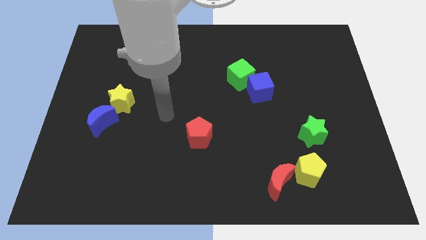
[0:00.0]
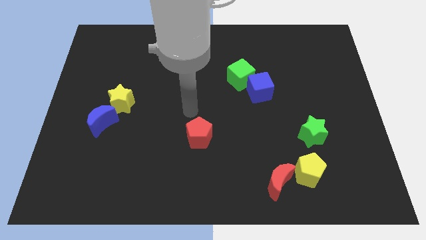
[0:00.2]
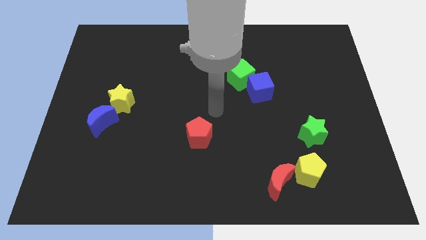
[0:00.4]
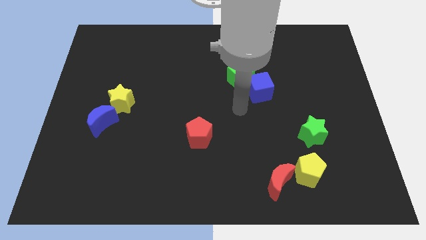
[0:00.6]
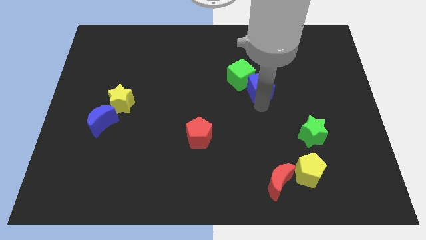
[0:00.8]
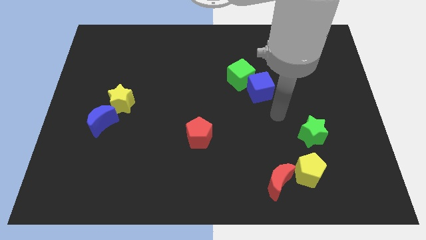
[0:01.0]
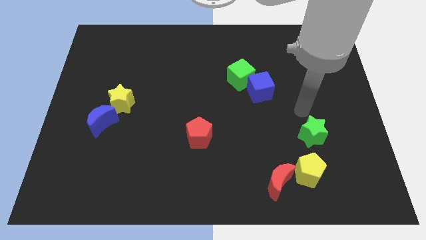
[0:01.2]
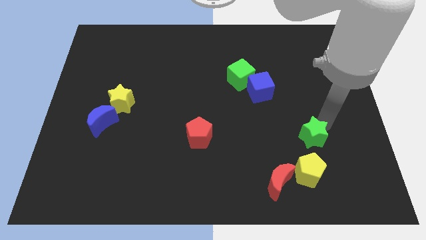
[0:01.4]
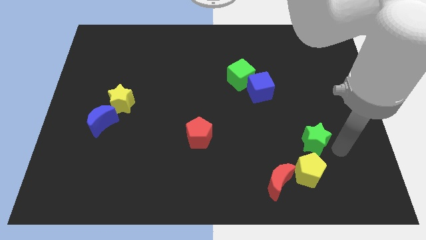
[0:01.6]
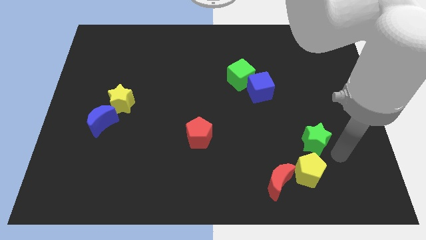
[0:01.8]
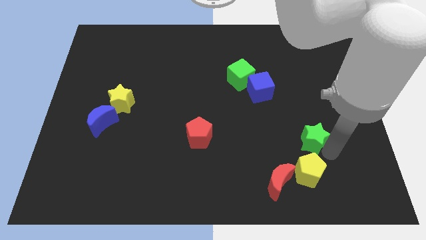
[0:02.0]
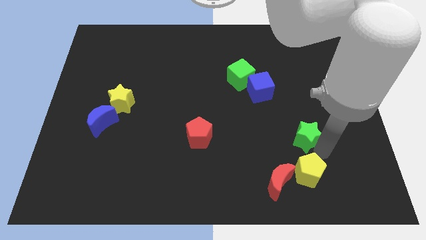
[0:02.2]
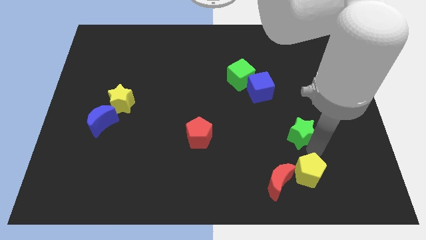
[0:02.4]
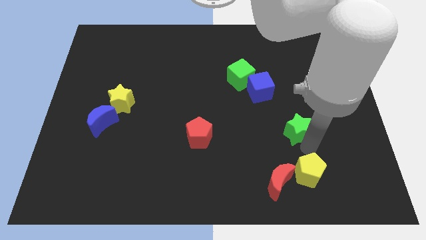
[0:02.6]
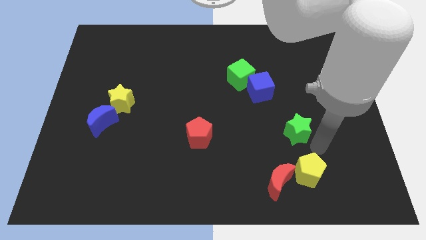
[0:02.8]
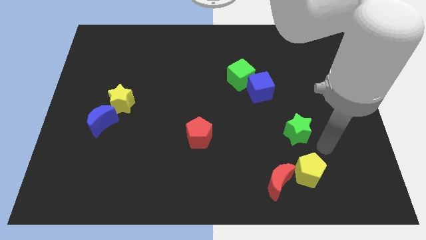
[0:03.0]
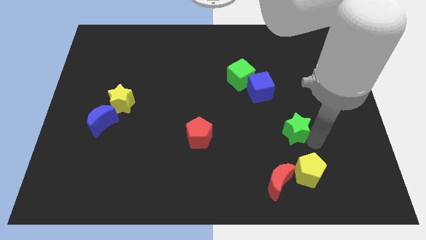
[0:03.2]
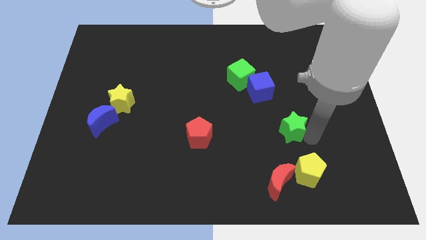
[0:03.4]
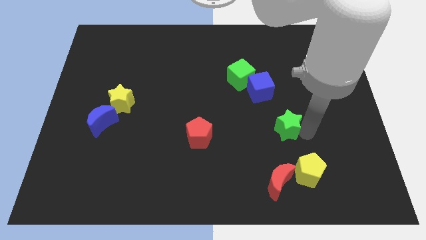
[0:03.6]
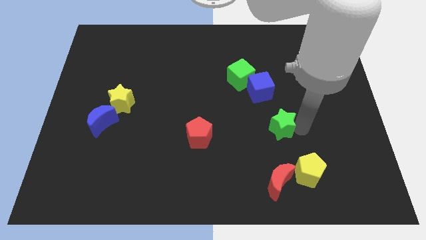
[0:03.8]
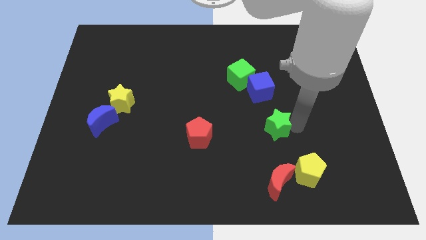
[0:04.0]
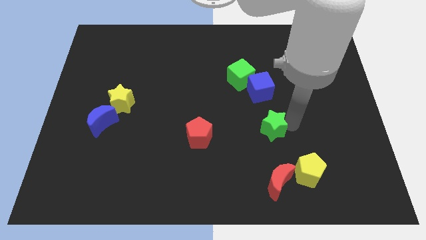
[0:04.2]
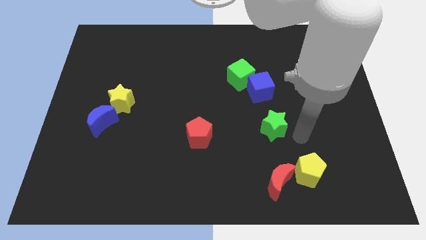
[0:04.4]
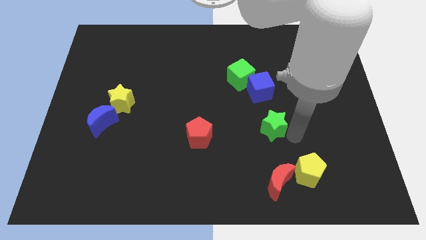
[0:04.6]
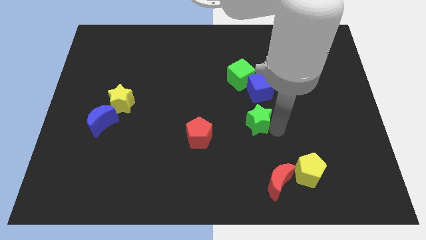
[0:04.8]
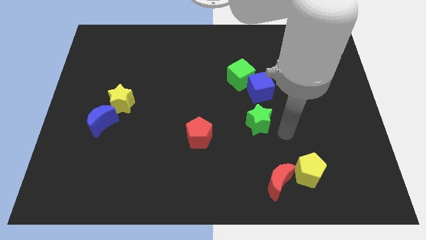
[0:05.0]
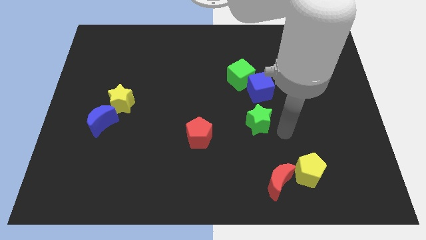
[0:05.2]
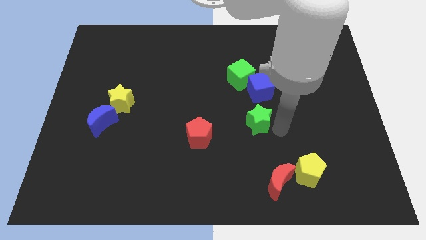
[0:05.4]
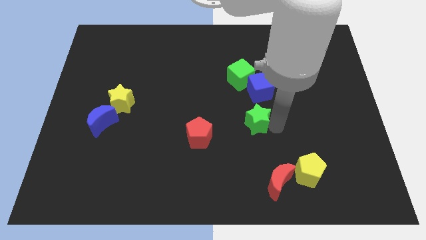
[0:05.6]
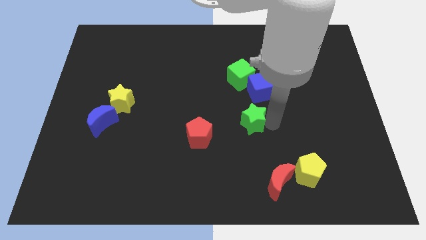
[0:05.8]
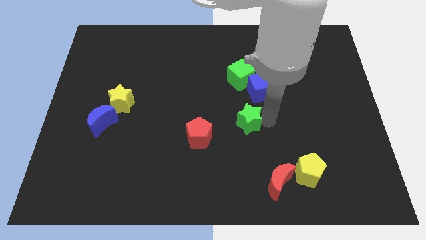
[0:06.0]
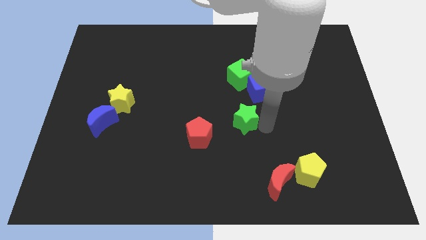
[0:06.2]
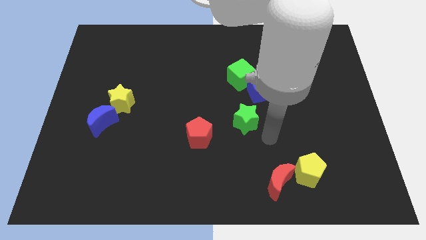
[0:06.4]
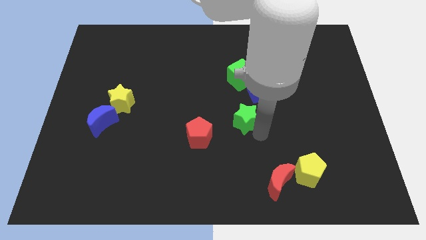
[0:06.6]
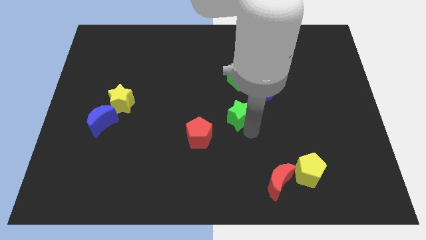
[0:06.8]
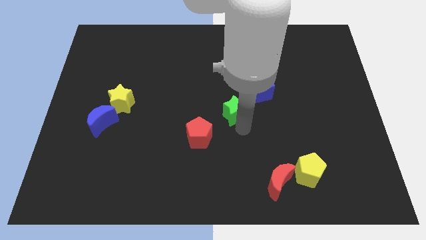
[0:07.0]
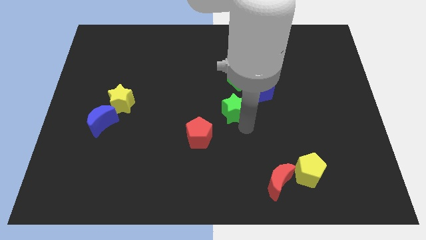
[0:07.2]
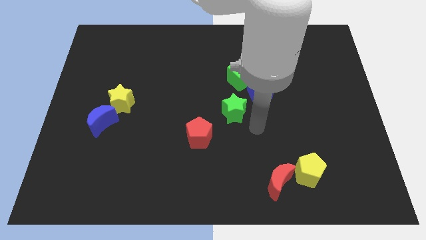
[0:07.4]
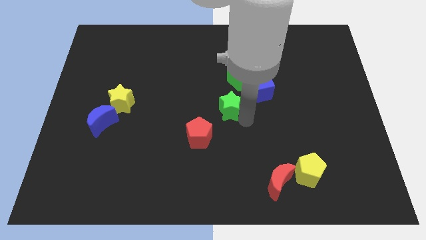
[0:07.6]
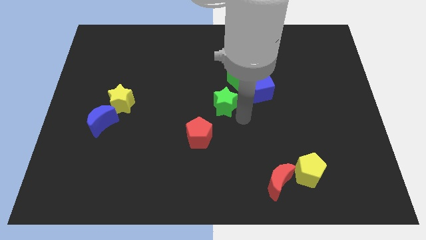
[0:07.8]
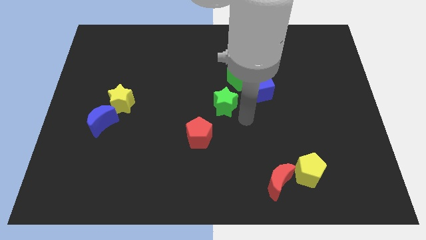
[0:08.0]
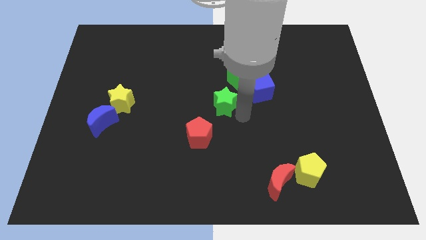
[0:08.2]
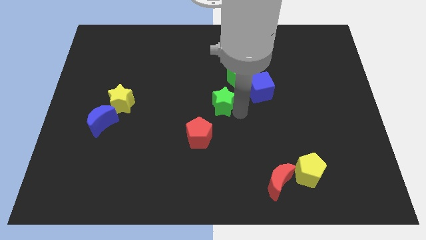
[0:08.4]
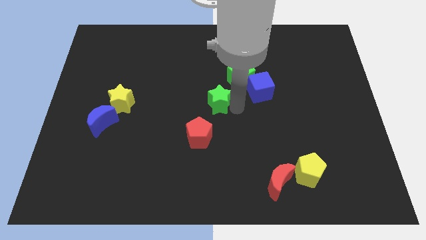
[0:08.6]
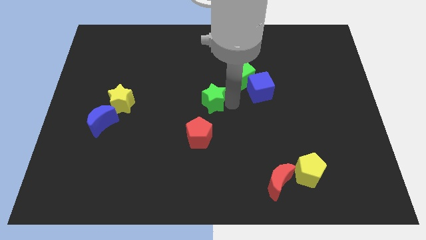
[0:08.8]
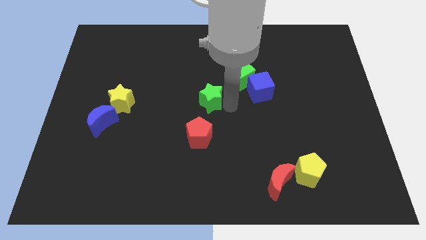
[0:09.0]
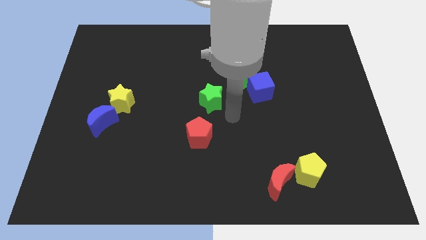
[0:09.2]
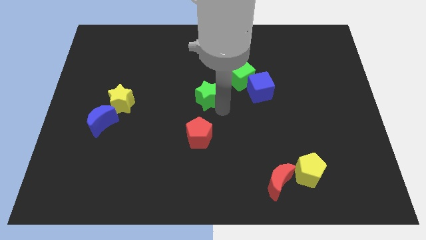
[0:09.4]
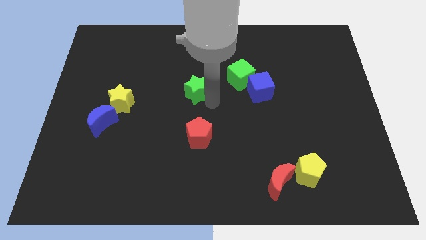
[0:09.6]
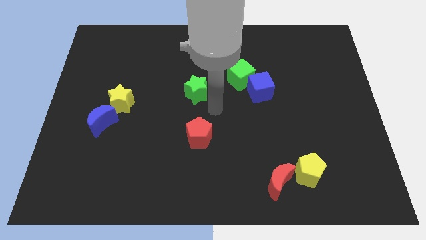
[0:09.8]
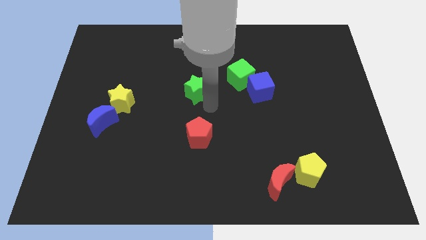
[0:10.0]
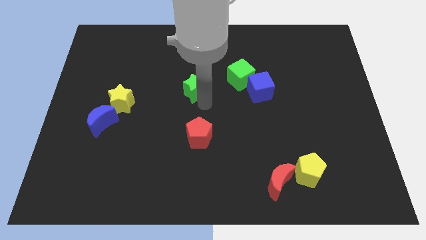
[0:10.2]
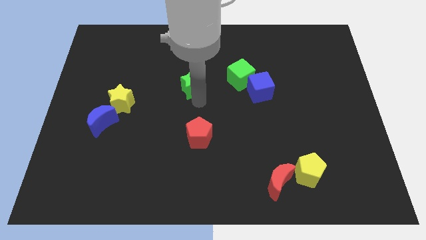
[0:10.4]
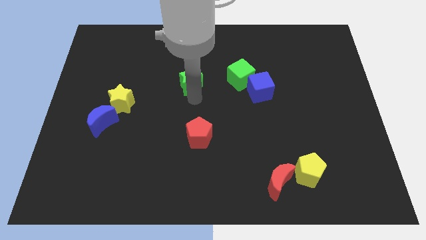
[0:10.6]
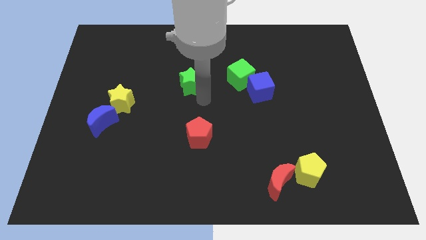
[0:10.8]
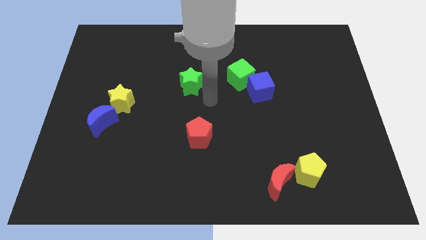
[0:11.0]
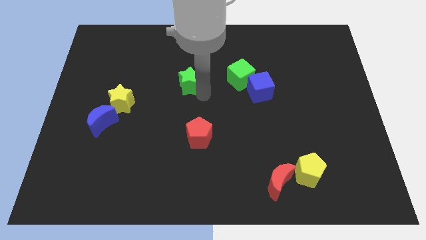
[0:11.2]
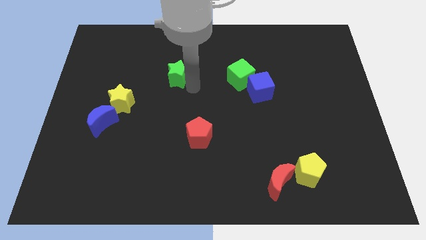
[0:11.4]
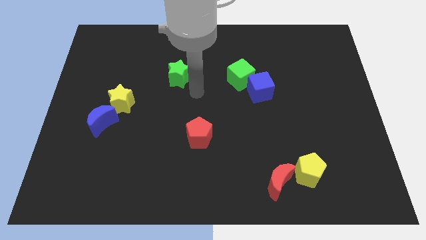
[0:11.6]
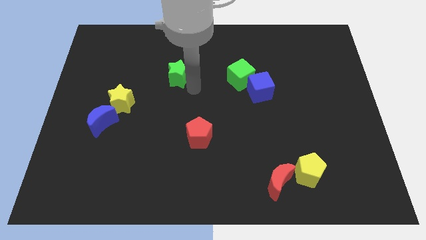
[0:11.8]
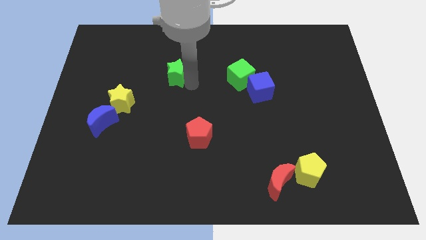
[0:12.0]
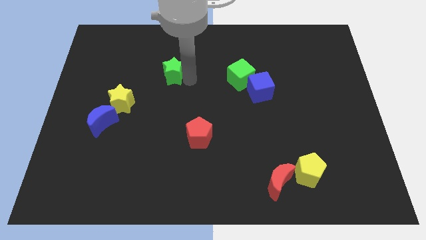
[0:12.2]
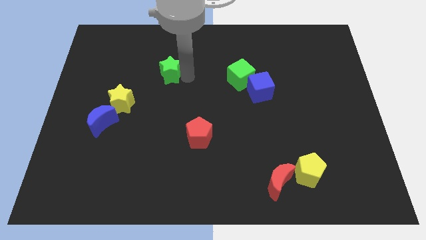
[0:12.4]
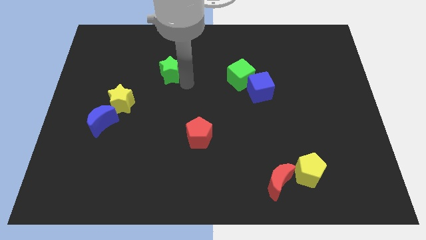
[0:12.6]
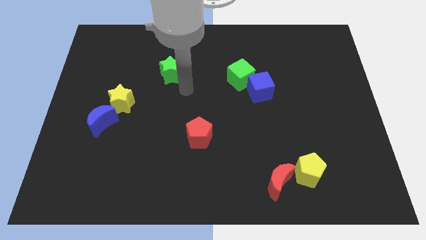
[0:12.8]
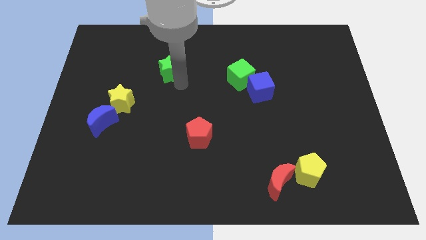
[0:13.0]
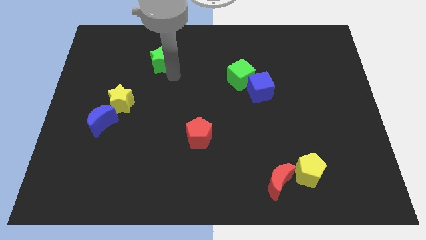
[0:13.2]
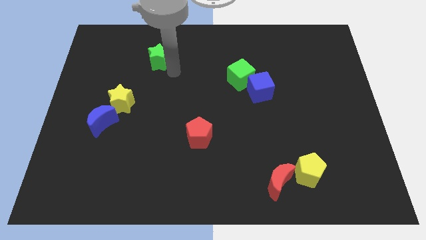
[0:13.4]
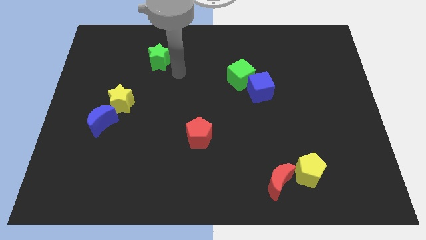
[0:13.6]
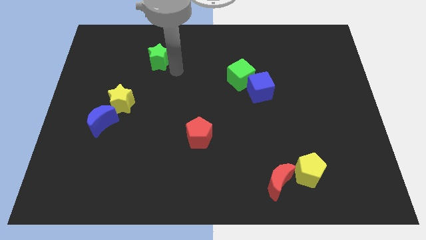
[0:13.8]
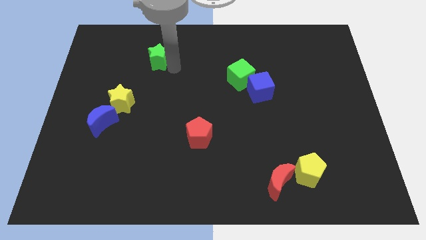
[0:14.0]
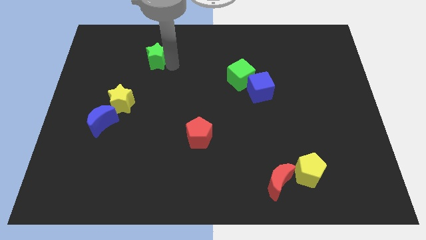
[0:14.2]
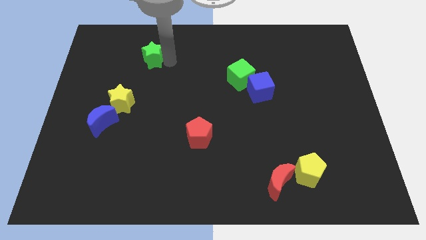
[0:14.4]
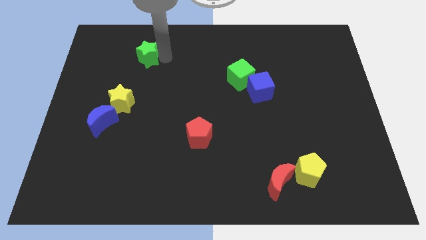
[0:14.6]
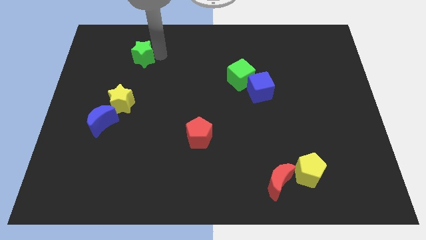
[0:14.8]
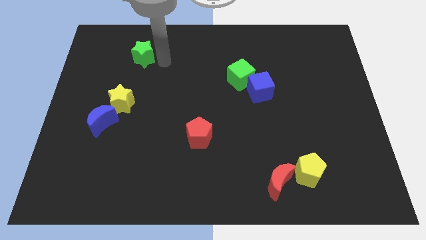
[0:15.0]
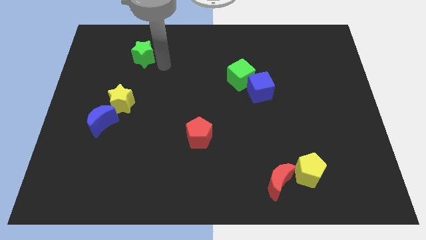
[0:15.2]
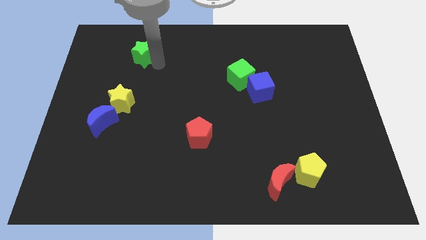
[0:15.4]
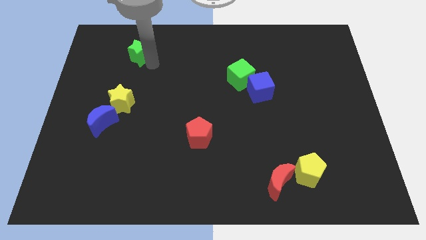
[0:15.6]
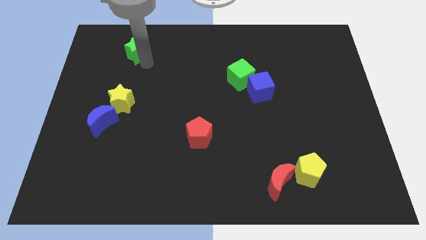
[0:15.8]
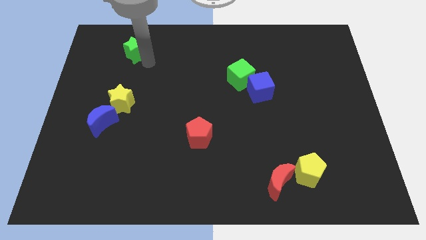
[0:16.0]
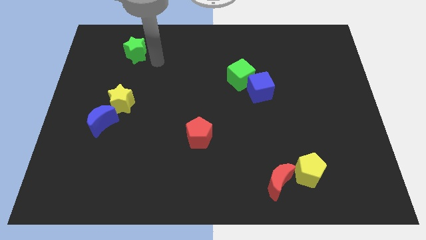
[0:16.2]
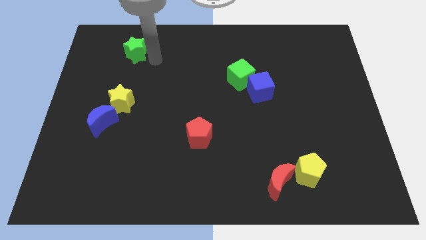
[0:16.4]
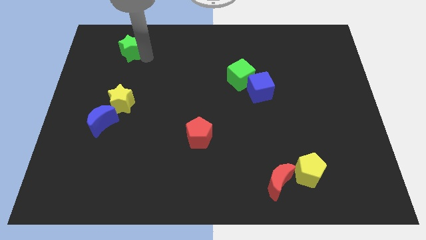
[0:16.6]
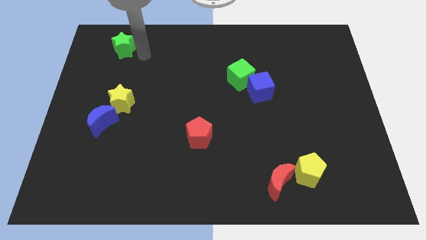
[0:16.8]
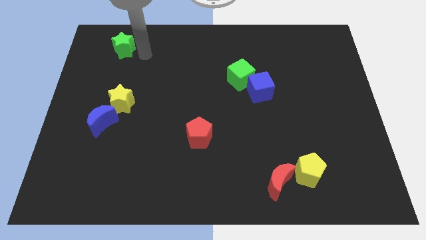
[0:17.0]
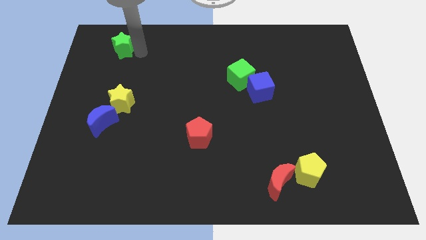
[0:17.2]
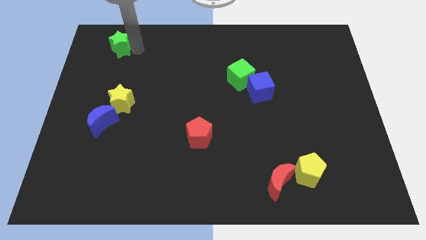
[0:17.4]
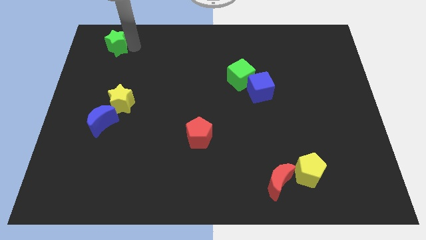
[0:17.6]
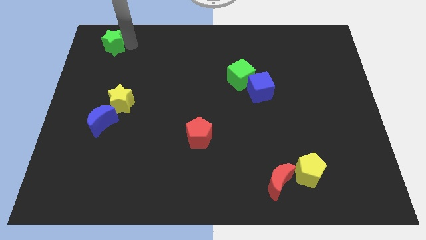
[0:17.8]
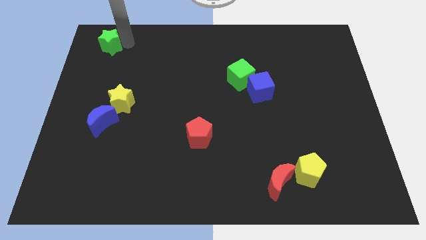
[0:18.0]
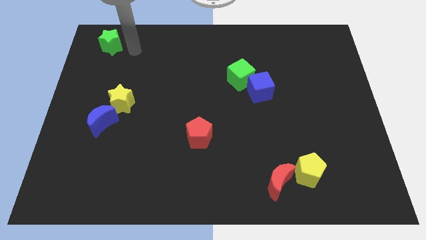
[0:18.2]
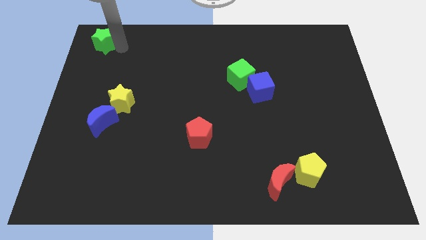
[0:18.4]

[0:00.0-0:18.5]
slide the green star to the top left corner
